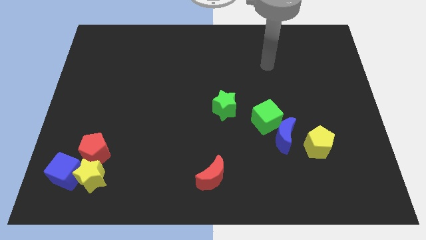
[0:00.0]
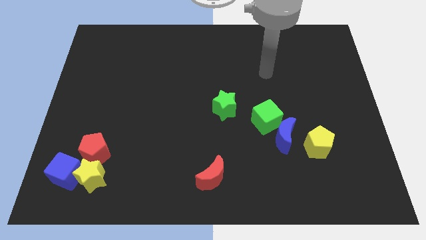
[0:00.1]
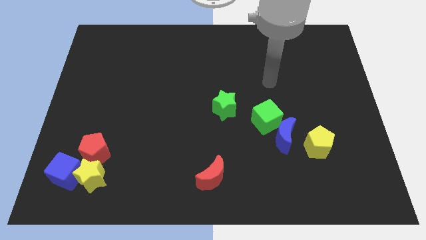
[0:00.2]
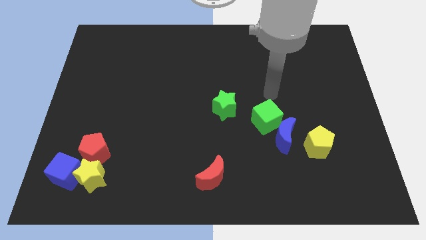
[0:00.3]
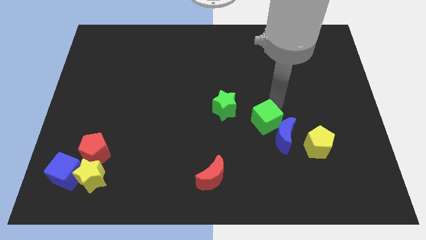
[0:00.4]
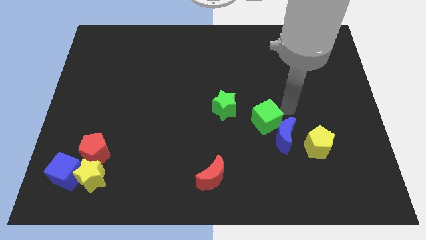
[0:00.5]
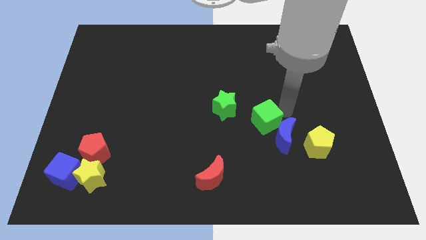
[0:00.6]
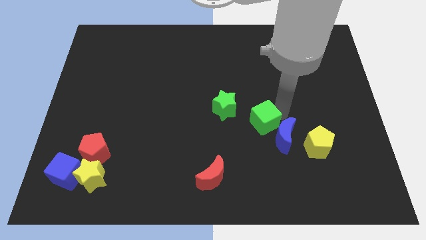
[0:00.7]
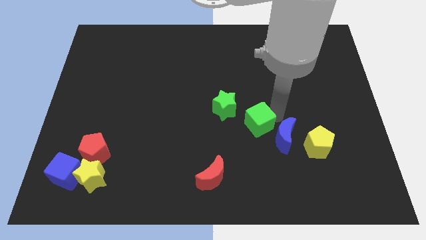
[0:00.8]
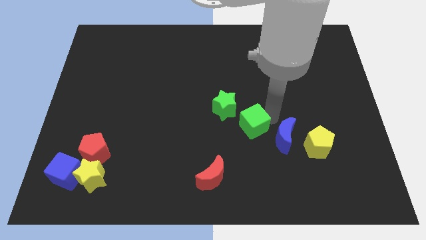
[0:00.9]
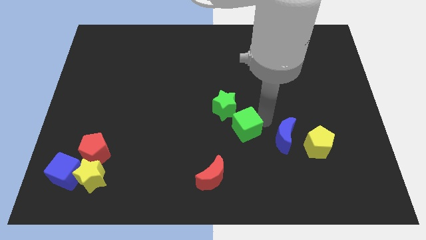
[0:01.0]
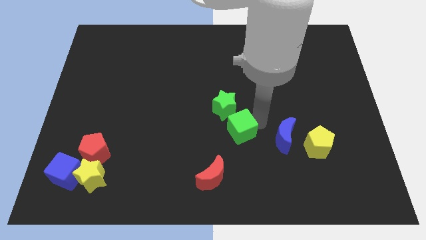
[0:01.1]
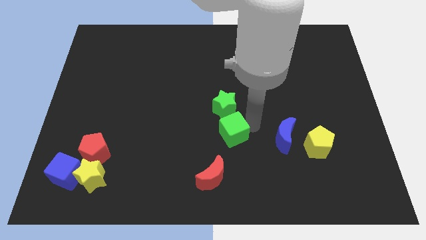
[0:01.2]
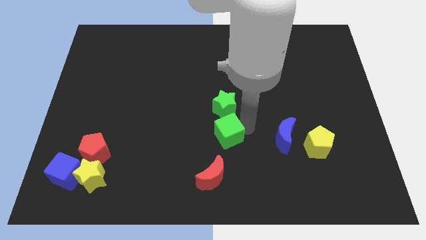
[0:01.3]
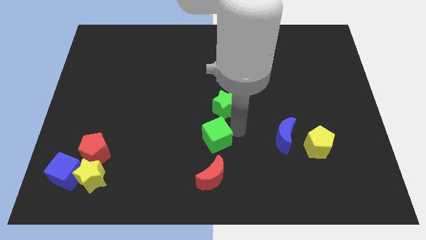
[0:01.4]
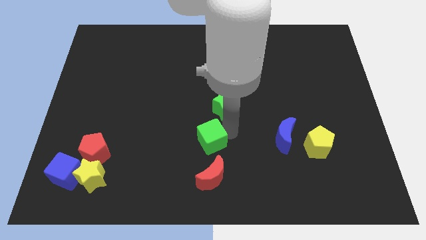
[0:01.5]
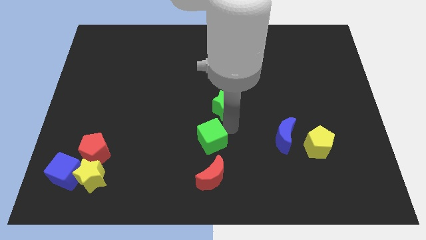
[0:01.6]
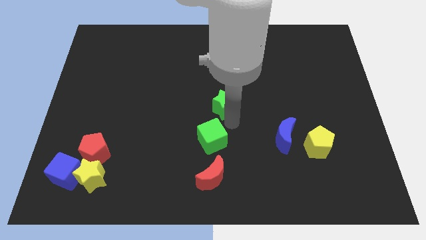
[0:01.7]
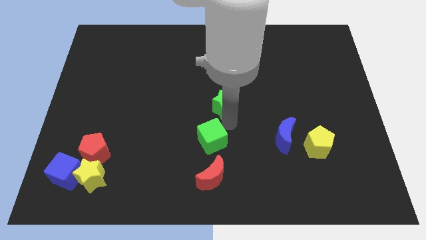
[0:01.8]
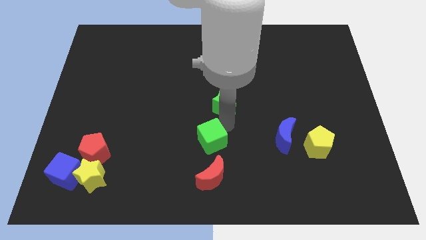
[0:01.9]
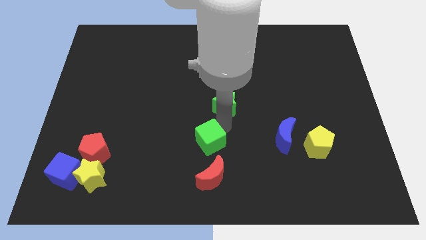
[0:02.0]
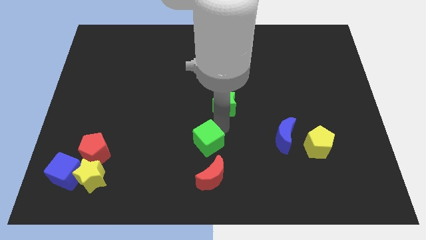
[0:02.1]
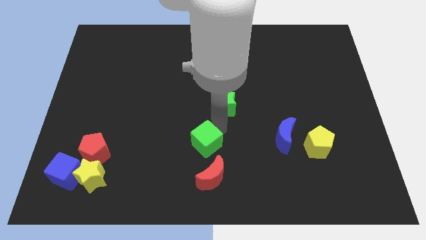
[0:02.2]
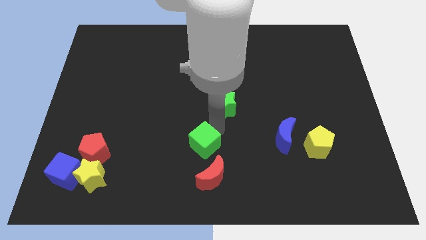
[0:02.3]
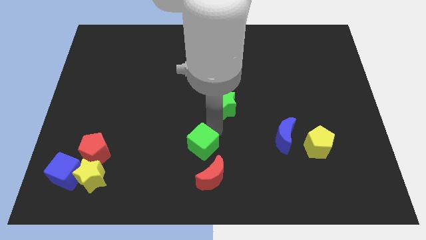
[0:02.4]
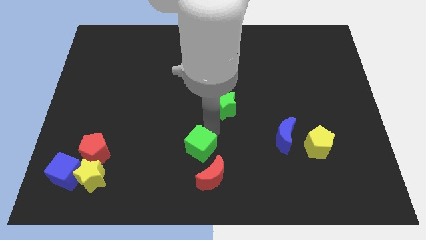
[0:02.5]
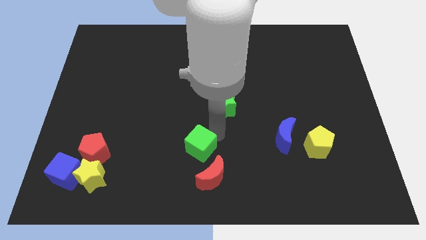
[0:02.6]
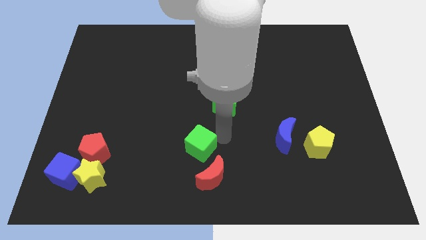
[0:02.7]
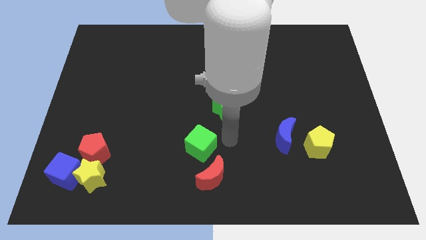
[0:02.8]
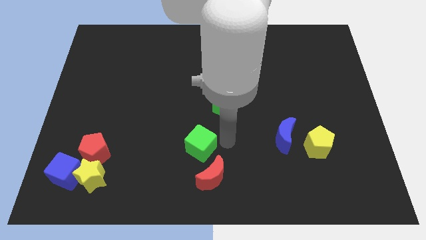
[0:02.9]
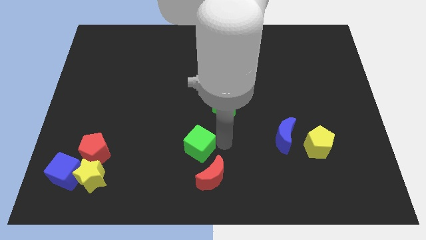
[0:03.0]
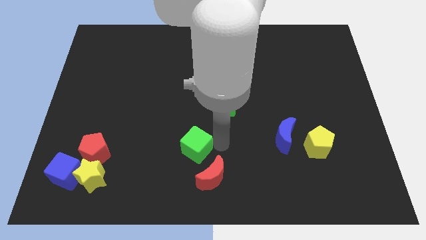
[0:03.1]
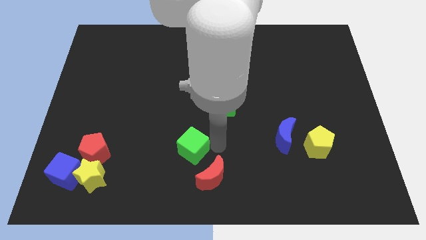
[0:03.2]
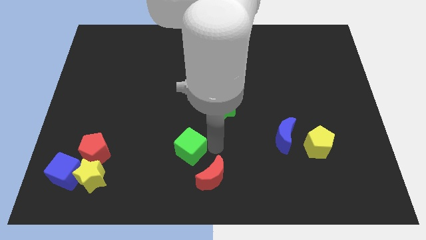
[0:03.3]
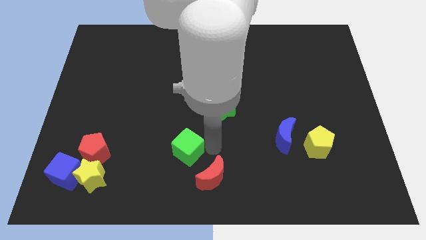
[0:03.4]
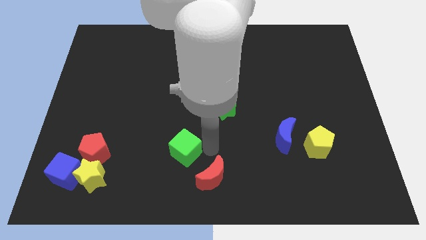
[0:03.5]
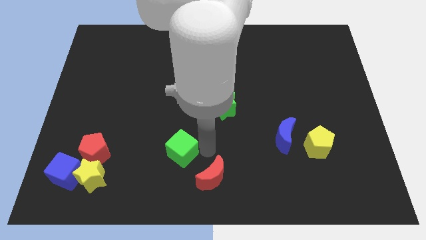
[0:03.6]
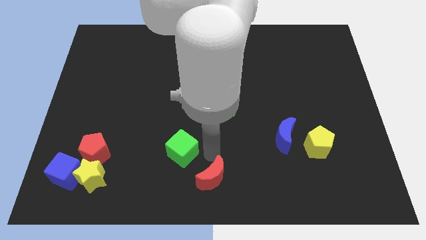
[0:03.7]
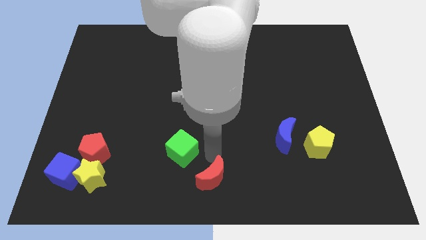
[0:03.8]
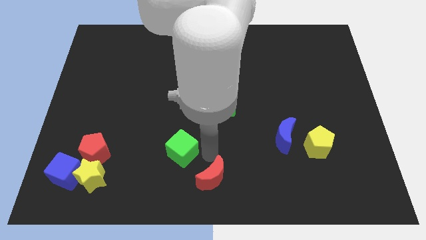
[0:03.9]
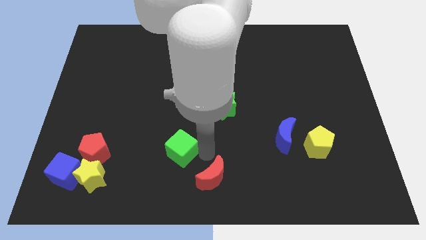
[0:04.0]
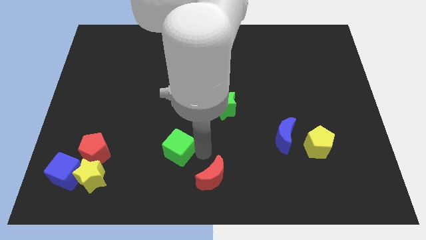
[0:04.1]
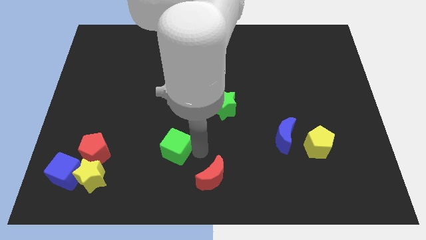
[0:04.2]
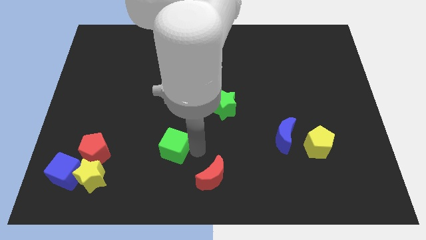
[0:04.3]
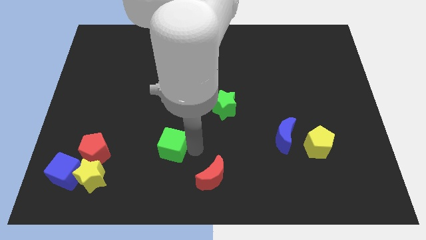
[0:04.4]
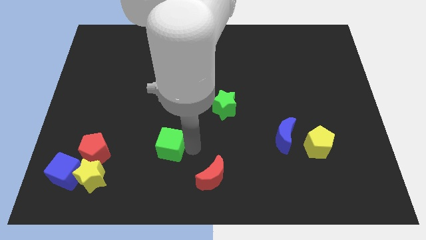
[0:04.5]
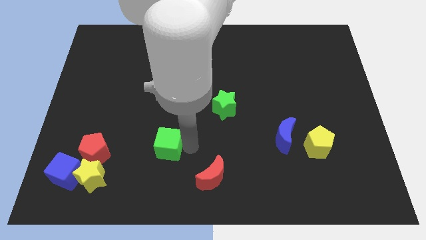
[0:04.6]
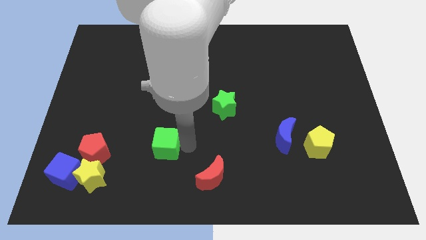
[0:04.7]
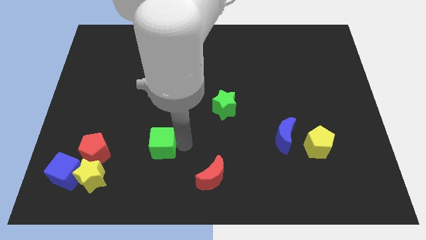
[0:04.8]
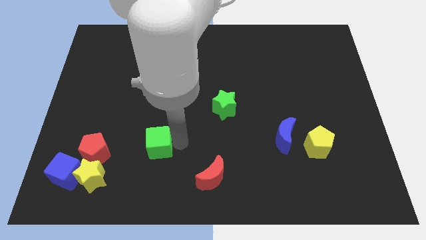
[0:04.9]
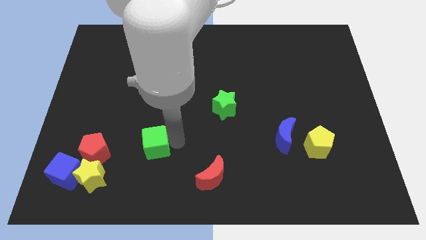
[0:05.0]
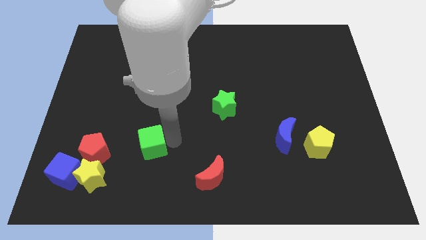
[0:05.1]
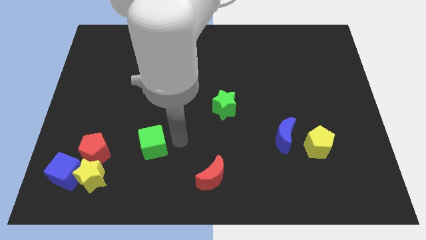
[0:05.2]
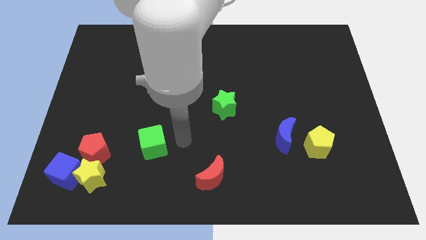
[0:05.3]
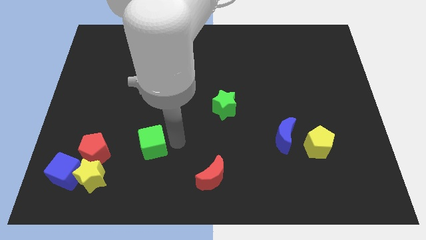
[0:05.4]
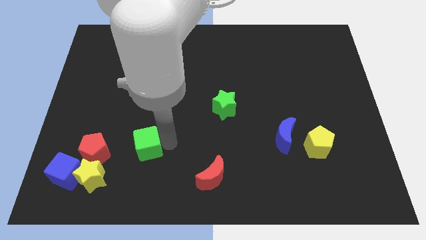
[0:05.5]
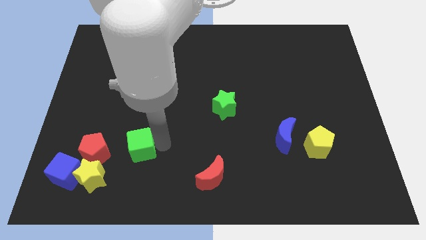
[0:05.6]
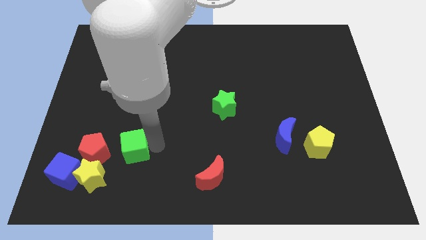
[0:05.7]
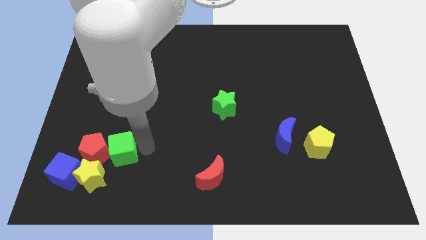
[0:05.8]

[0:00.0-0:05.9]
push the green cube close to the red pentagon

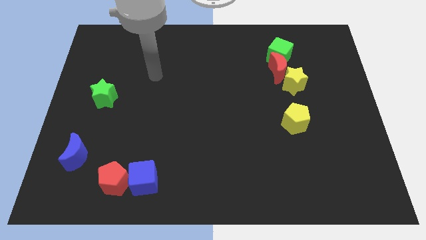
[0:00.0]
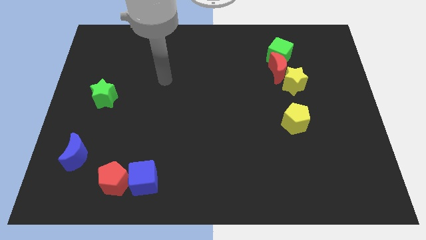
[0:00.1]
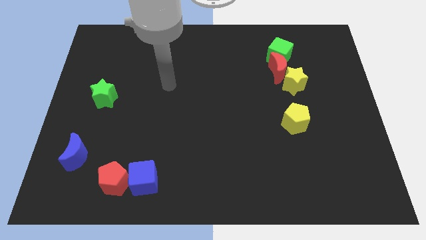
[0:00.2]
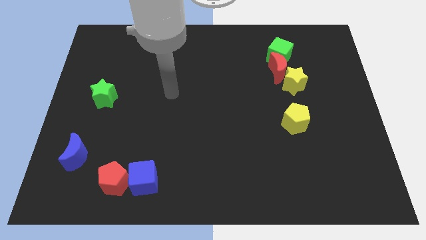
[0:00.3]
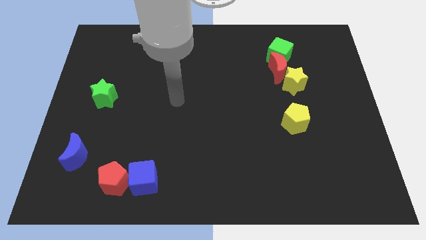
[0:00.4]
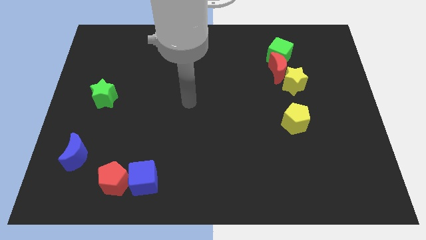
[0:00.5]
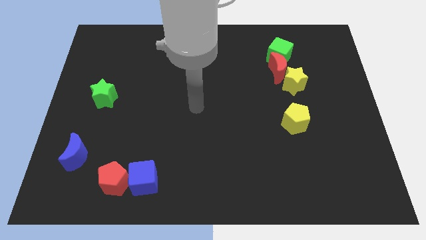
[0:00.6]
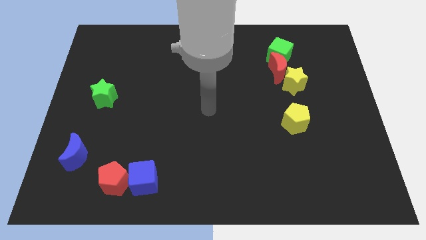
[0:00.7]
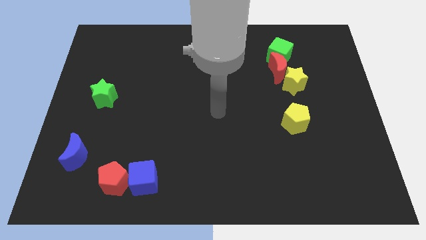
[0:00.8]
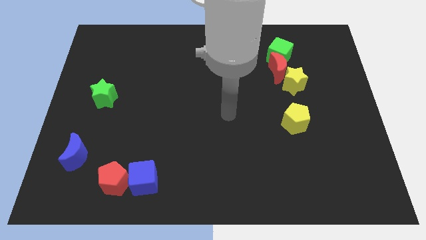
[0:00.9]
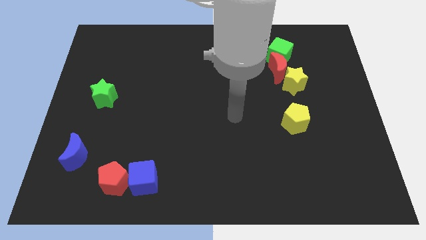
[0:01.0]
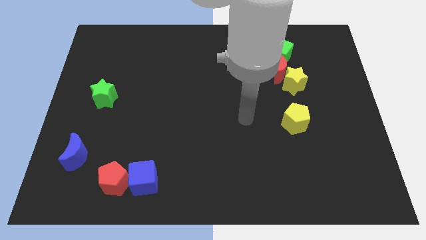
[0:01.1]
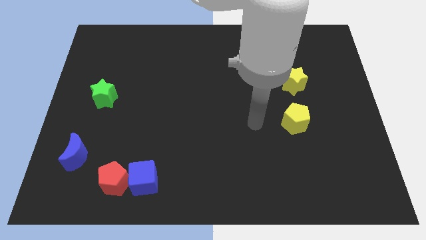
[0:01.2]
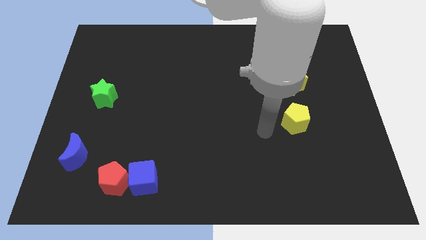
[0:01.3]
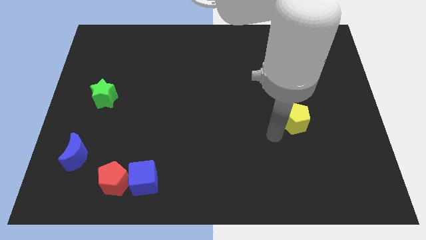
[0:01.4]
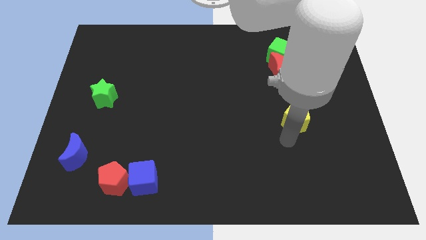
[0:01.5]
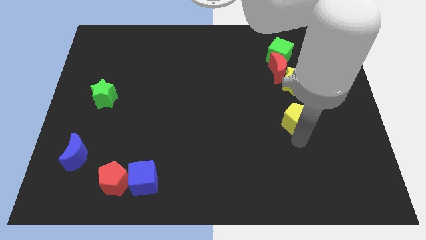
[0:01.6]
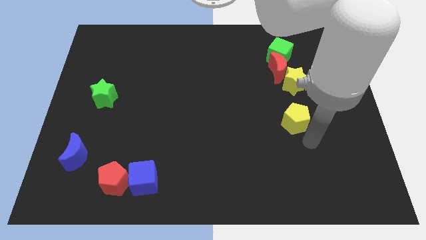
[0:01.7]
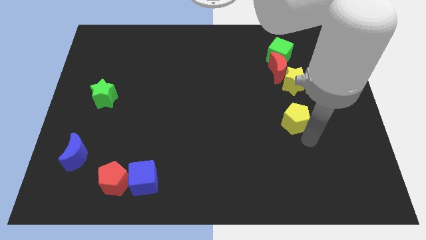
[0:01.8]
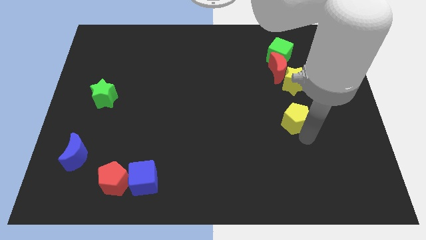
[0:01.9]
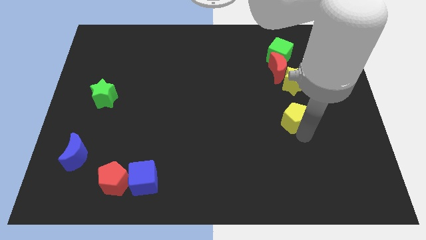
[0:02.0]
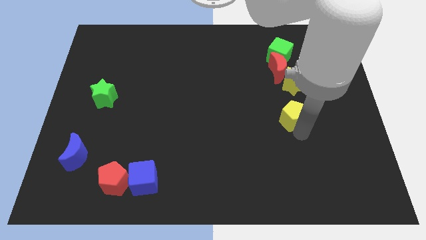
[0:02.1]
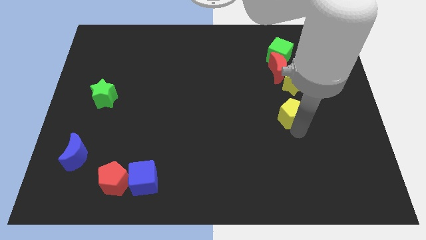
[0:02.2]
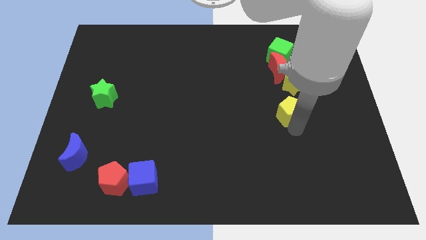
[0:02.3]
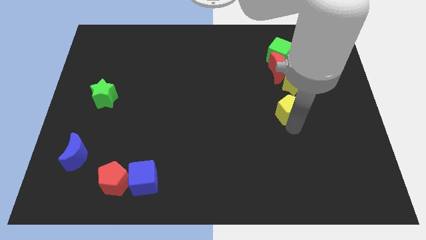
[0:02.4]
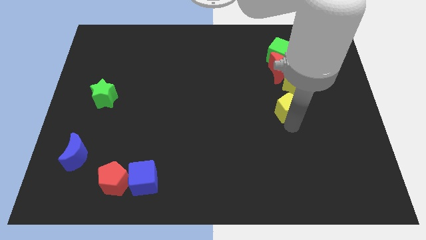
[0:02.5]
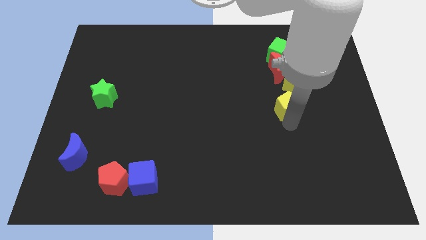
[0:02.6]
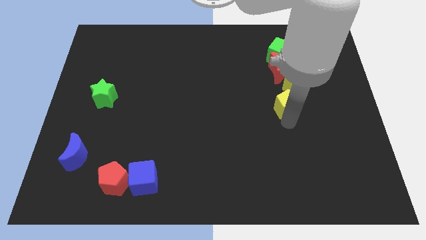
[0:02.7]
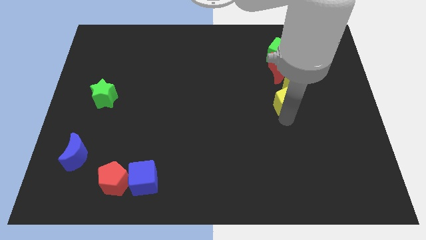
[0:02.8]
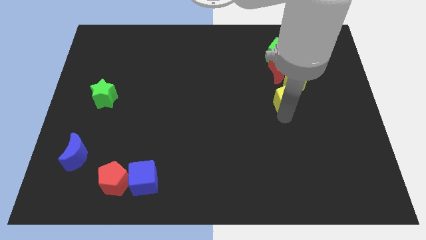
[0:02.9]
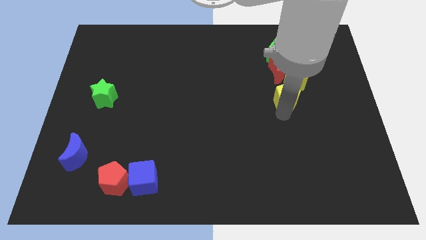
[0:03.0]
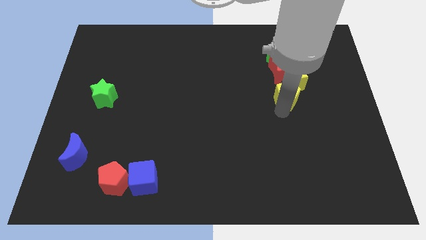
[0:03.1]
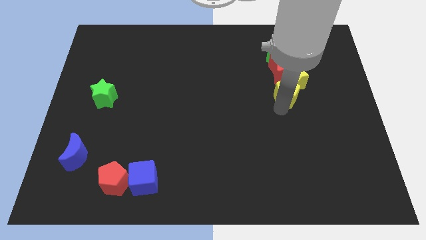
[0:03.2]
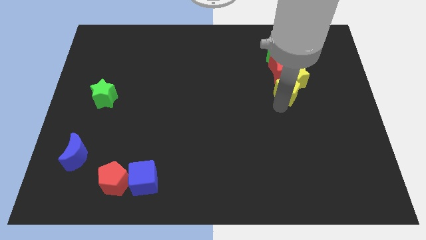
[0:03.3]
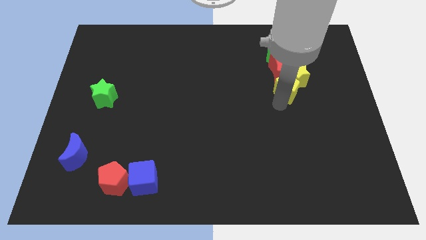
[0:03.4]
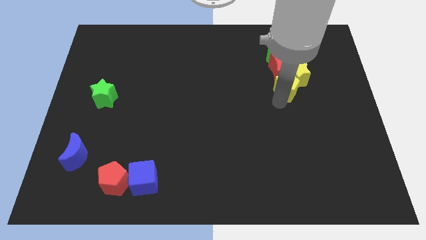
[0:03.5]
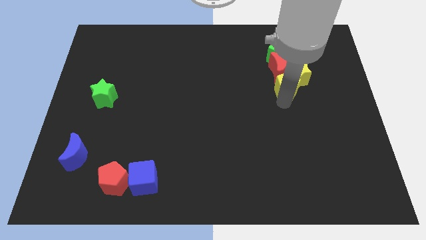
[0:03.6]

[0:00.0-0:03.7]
put the yellow pentagon next to the red moon
